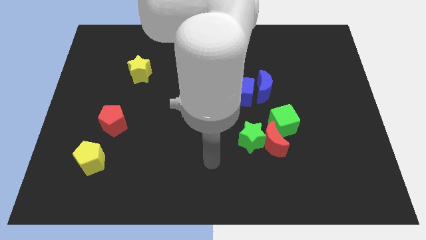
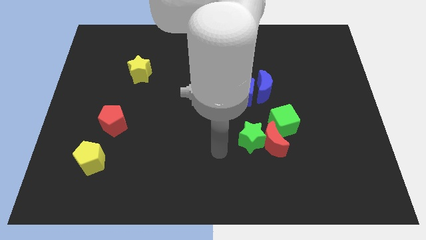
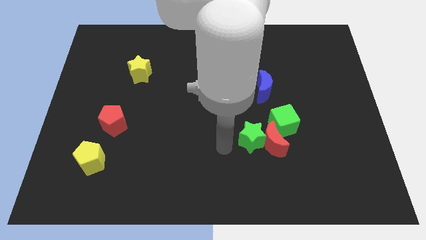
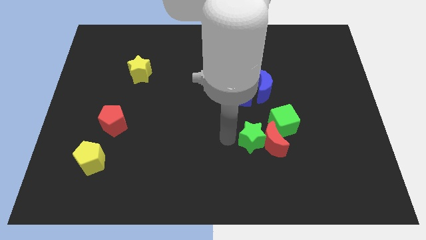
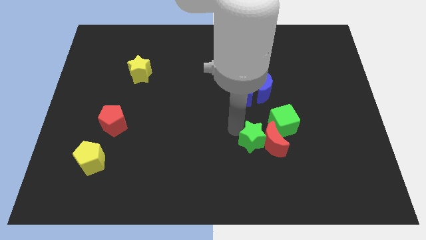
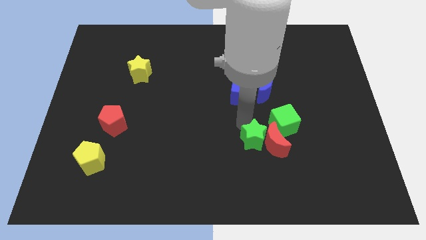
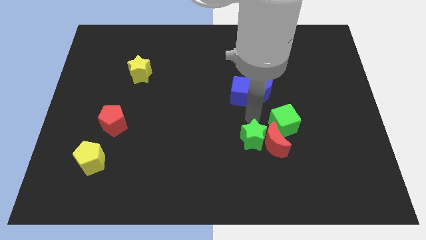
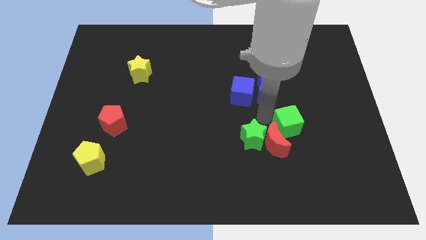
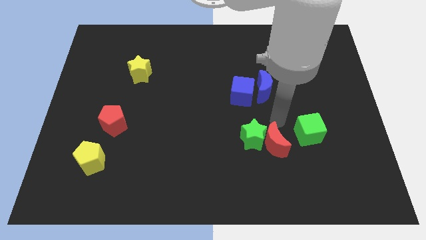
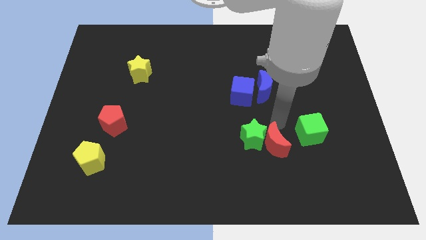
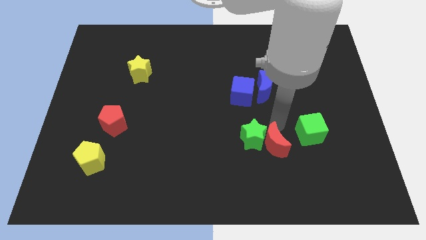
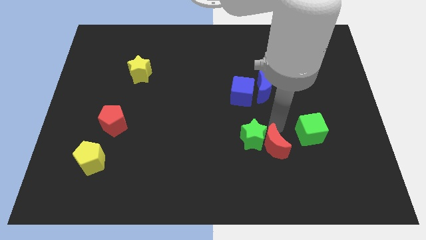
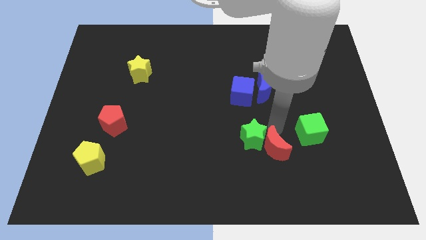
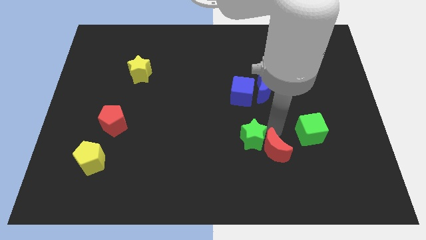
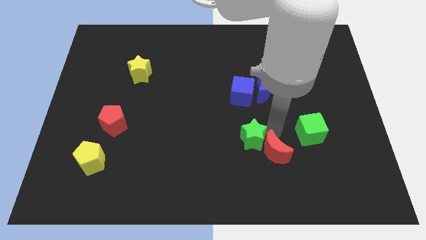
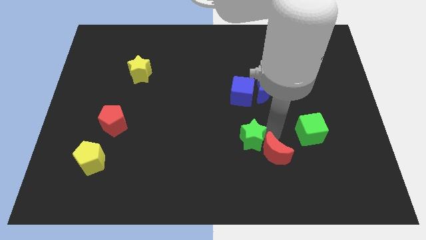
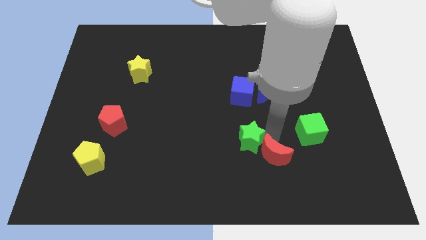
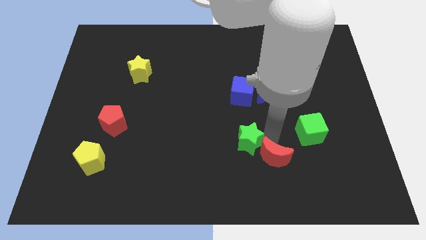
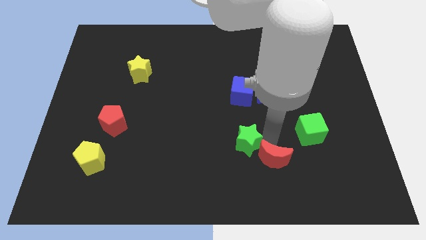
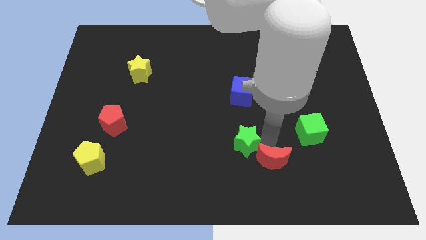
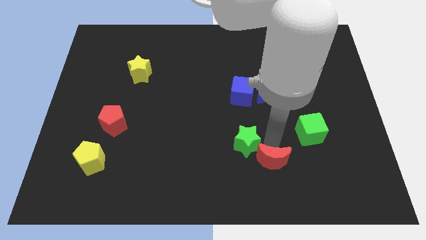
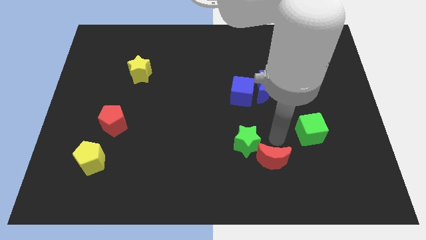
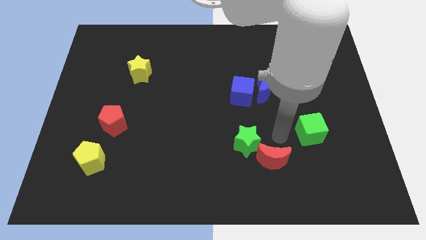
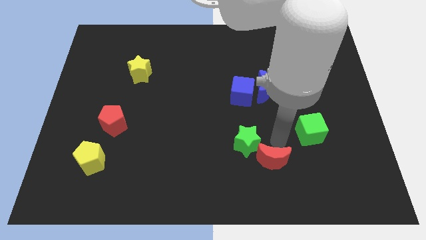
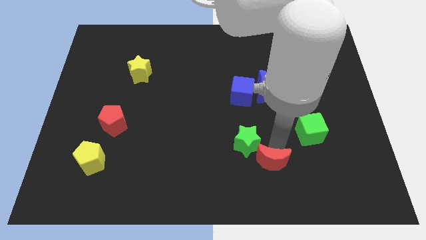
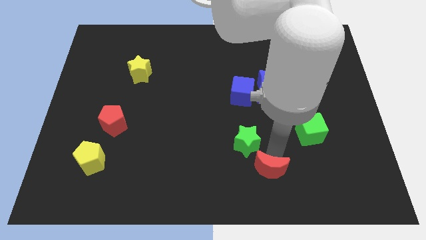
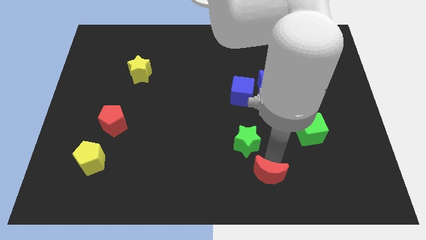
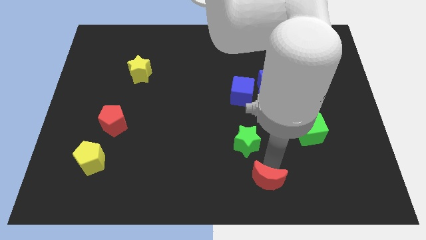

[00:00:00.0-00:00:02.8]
move the red moon away from the green star and green cube

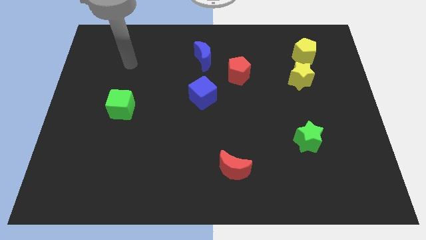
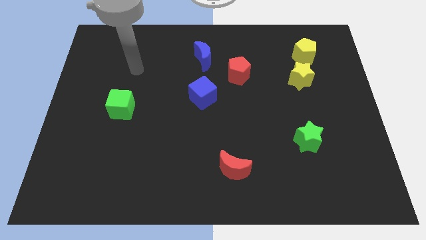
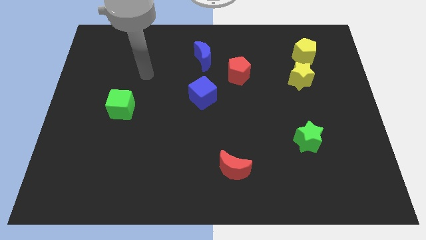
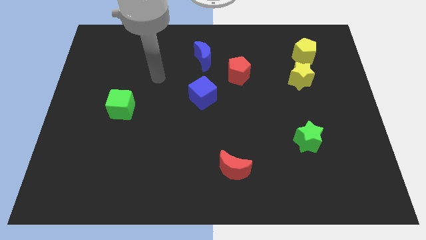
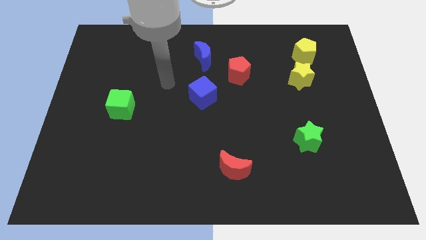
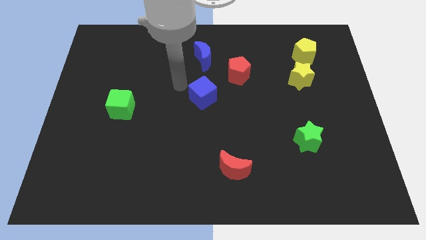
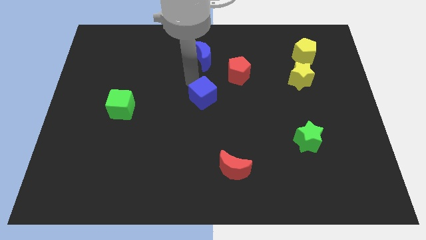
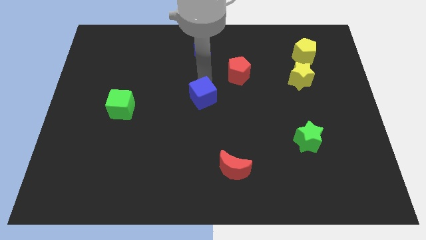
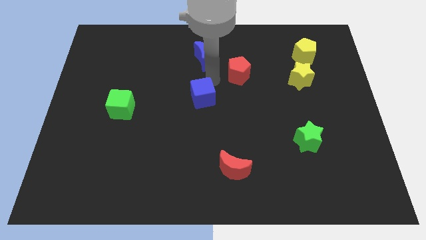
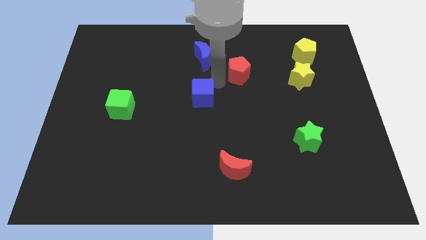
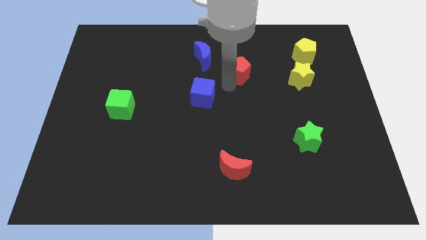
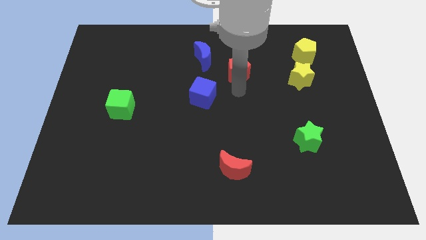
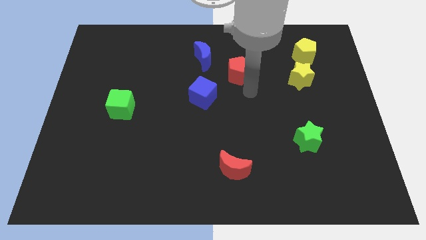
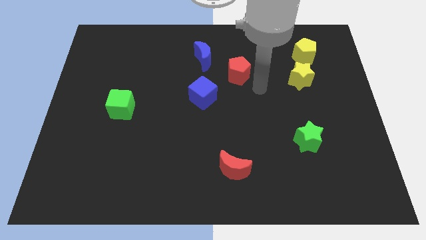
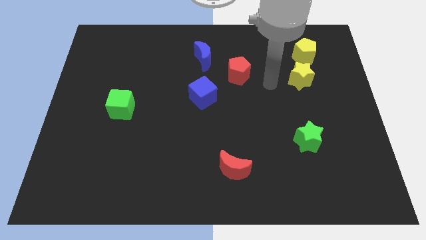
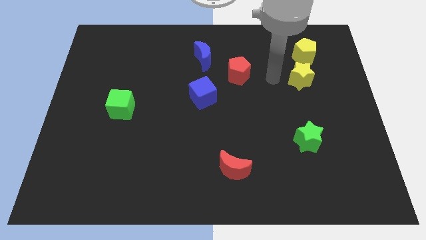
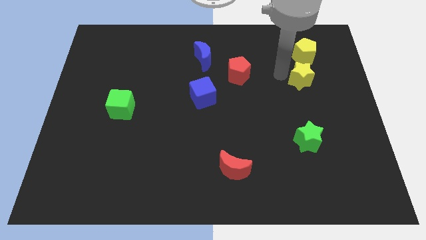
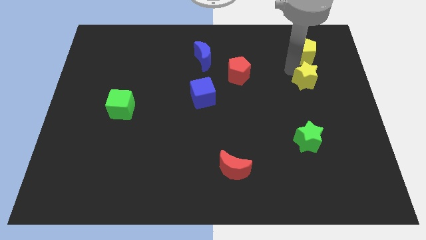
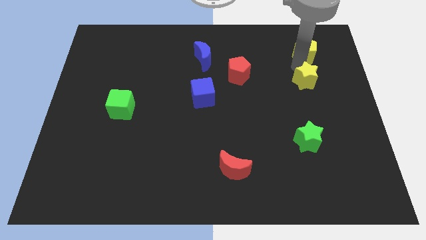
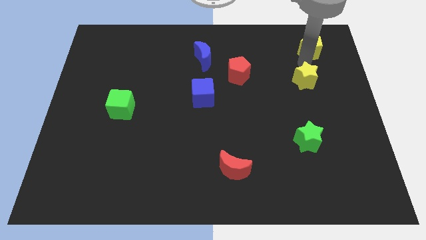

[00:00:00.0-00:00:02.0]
pull the yellow star apart from the yellow pentagon

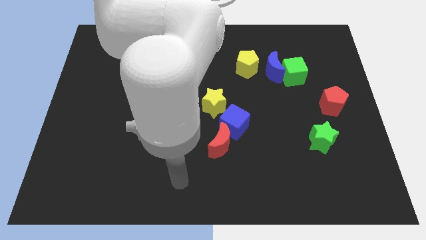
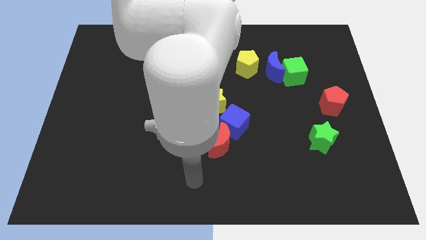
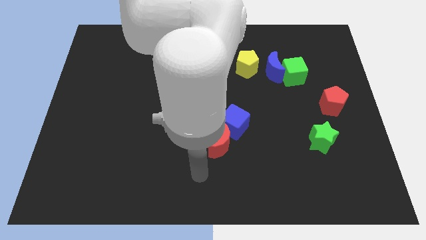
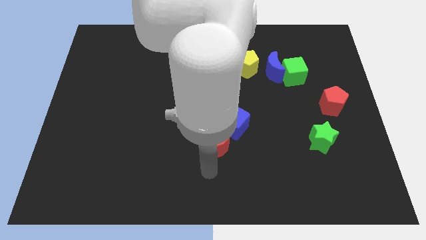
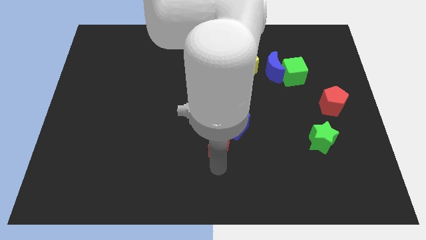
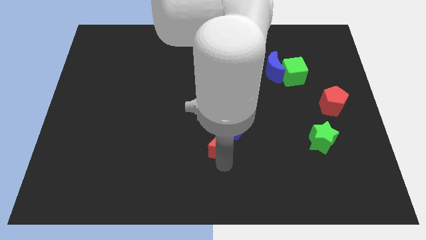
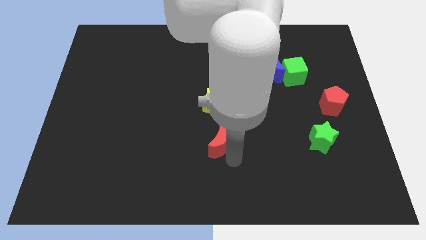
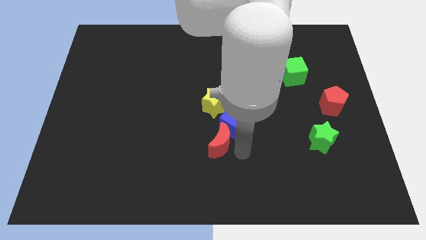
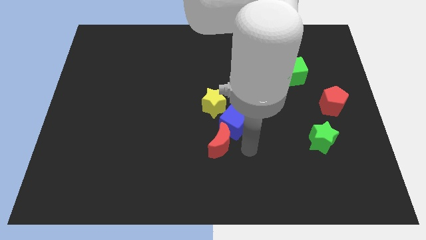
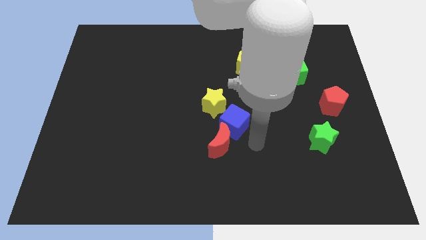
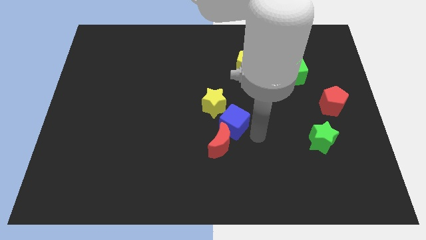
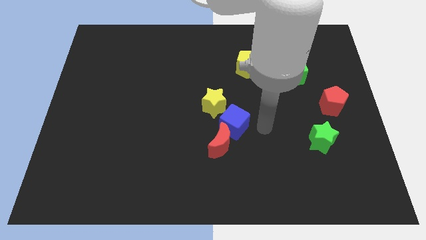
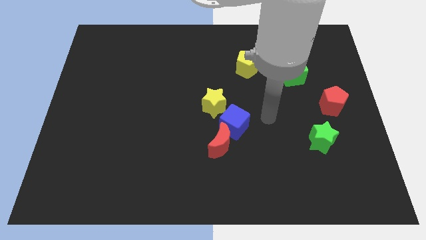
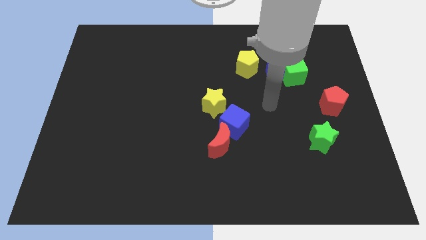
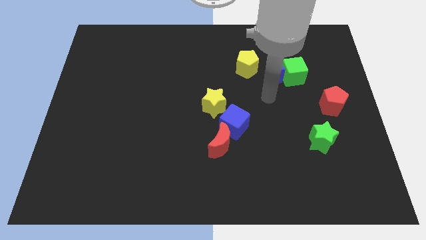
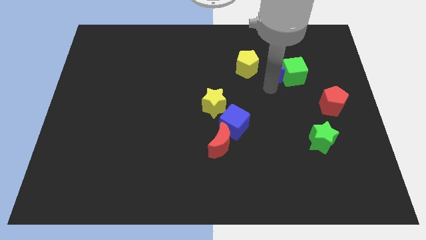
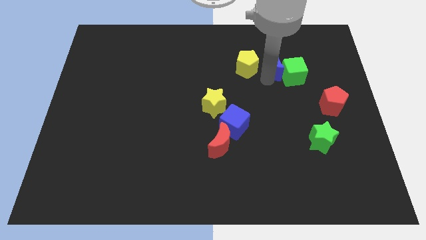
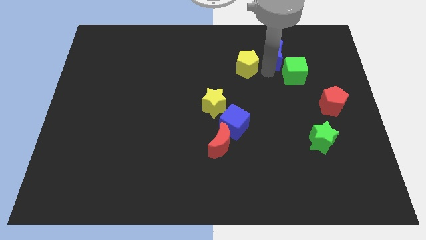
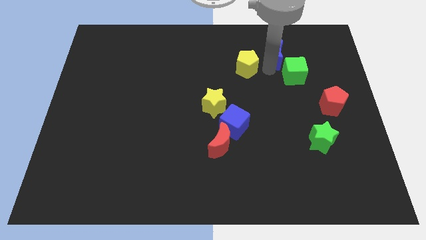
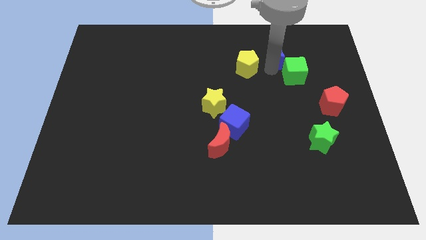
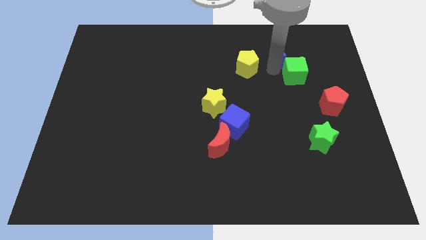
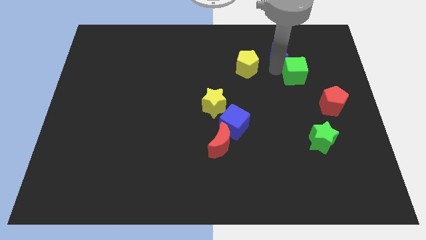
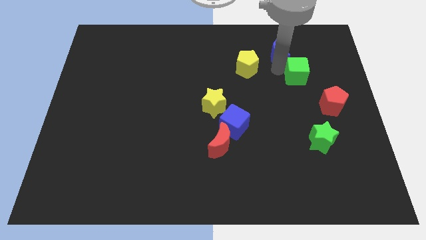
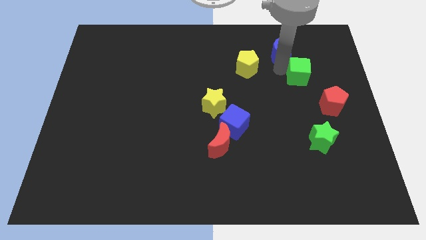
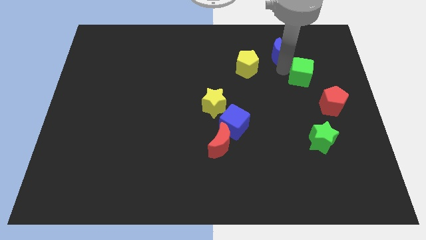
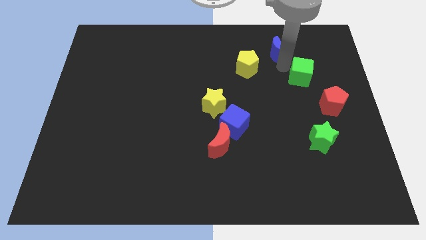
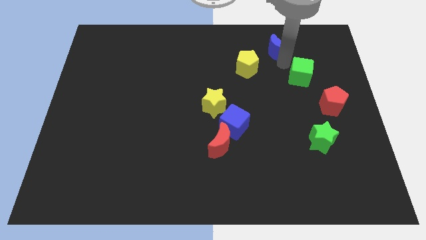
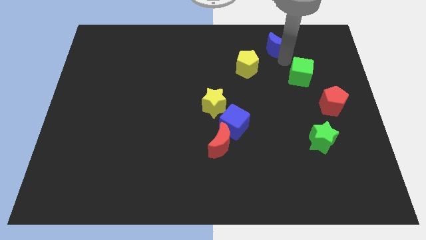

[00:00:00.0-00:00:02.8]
pull the green cube apart from the blue moon

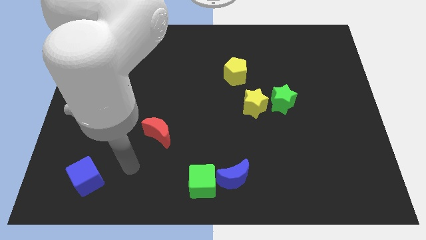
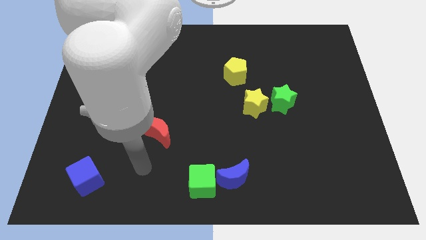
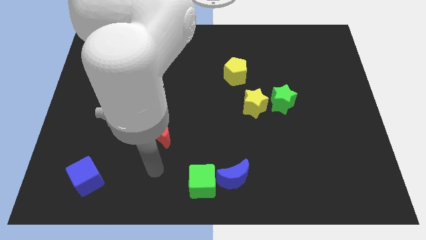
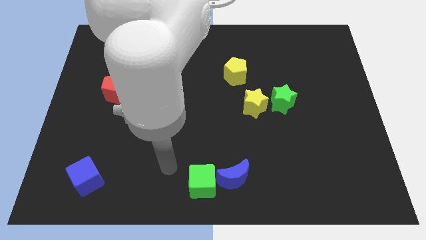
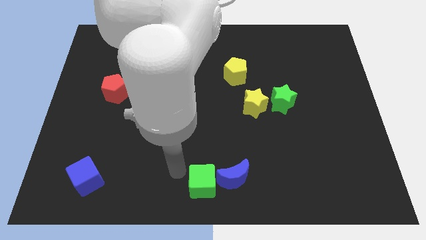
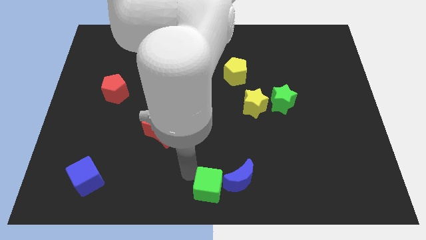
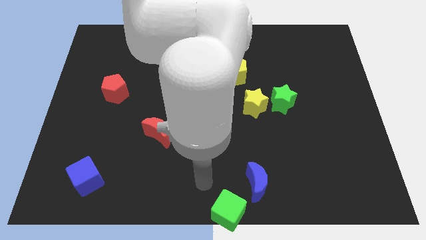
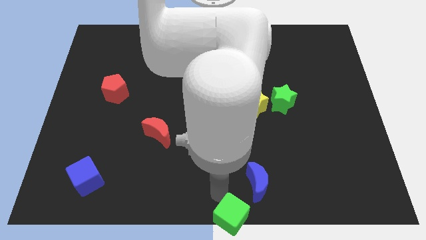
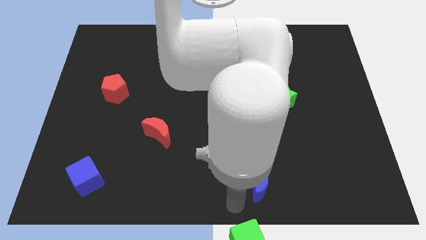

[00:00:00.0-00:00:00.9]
pull the blue moon apart from the green cube

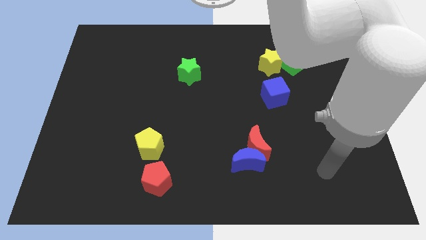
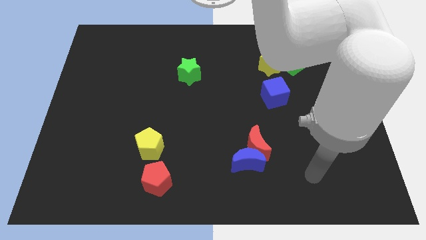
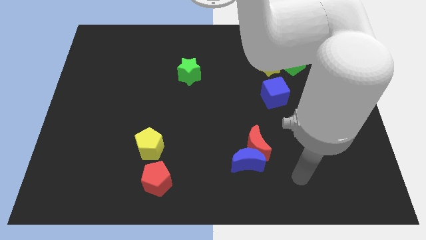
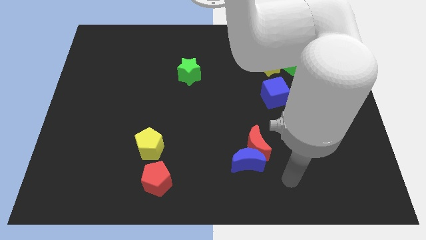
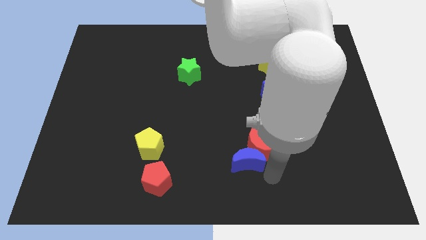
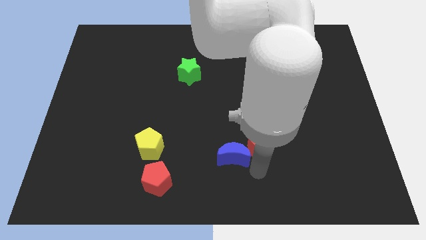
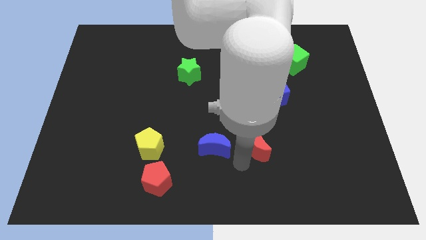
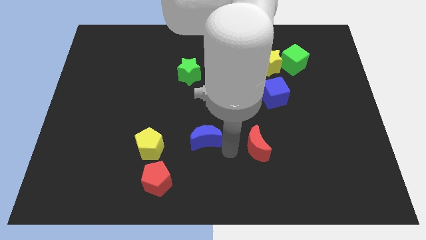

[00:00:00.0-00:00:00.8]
pull the red moon apart from the blue moon

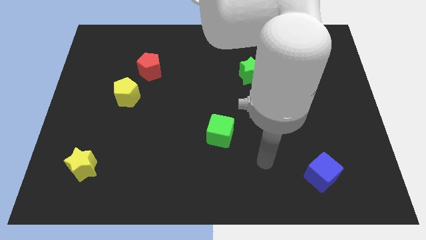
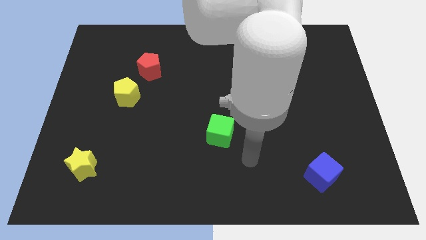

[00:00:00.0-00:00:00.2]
pull the red pentagon apart from the yellow pentagon
